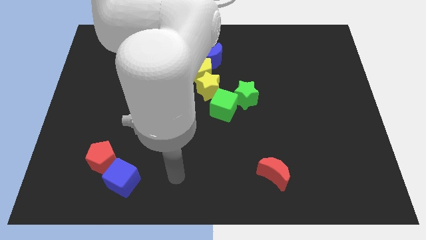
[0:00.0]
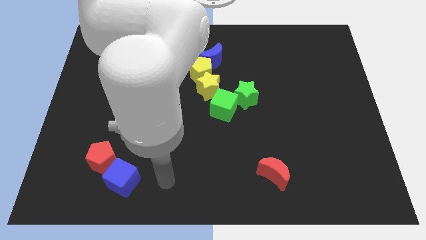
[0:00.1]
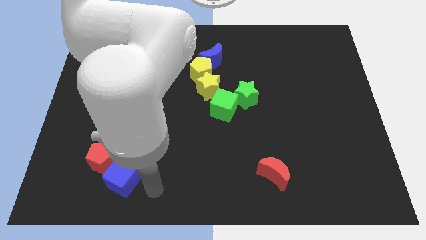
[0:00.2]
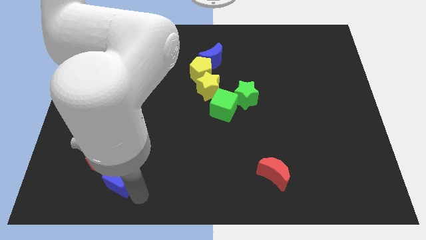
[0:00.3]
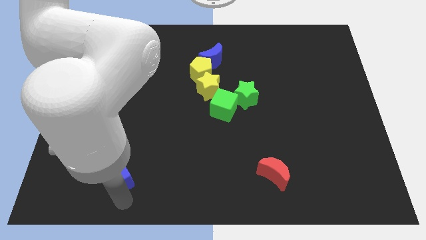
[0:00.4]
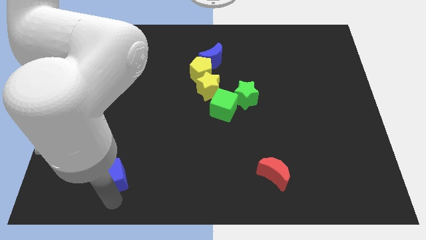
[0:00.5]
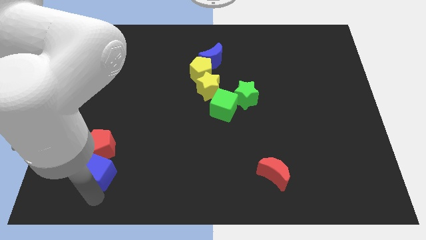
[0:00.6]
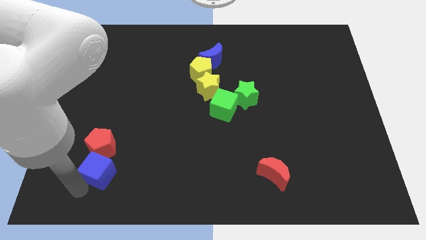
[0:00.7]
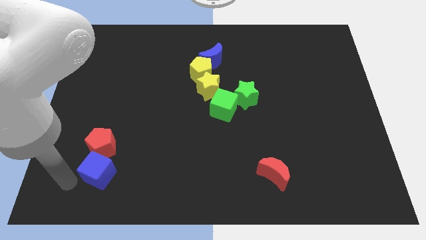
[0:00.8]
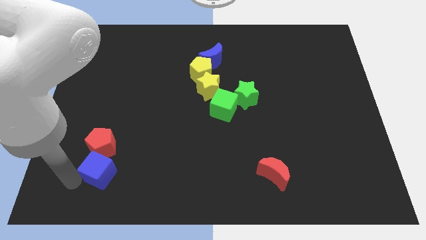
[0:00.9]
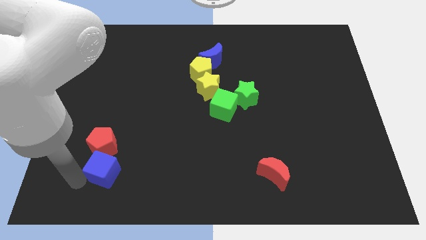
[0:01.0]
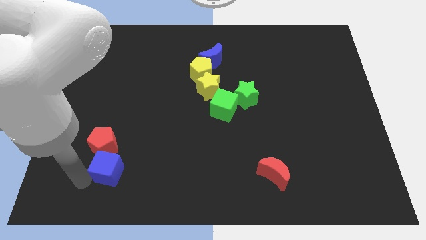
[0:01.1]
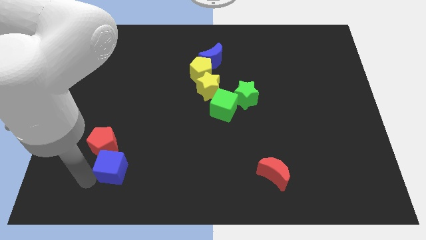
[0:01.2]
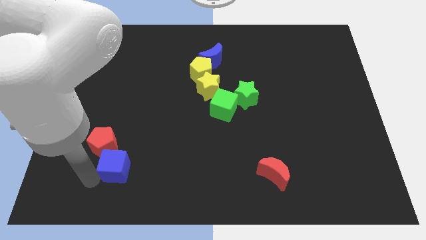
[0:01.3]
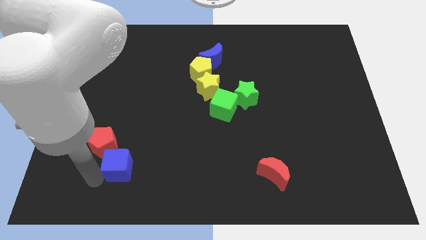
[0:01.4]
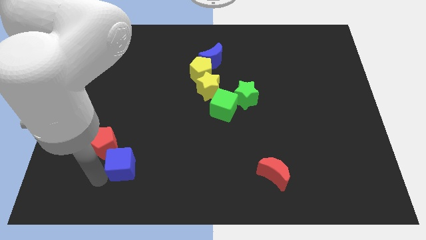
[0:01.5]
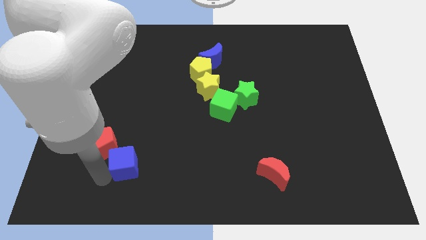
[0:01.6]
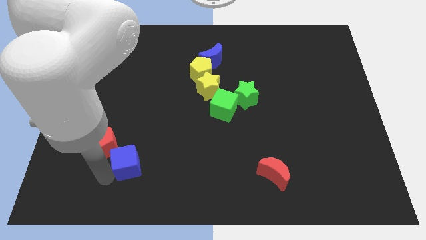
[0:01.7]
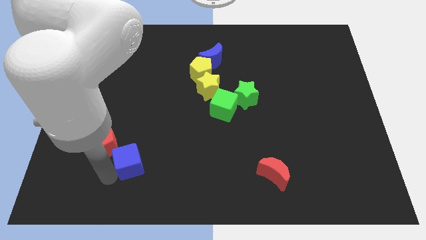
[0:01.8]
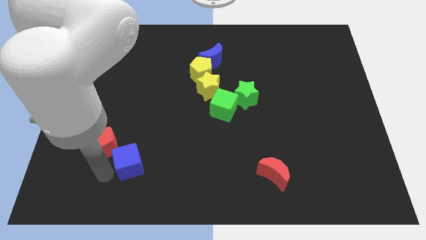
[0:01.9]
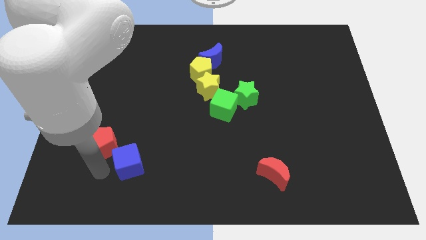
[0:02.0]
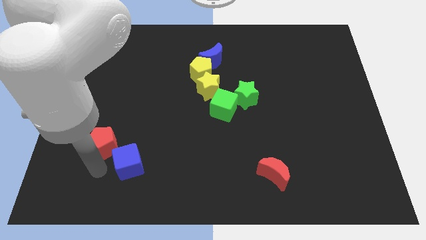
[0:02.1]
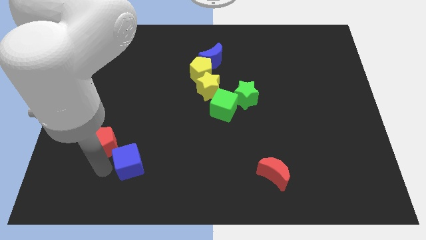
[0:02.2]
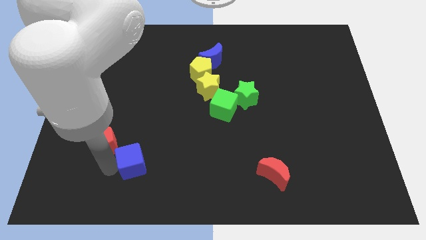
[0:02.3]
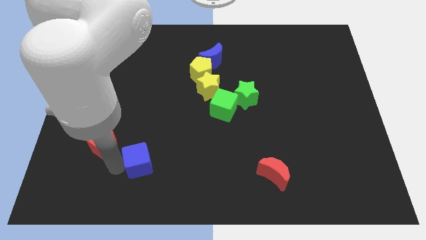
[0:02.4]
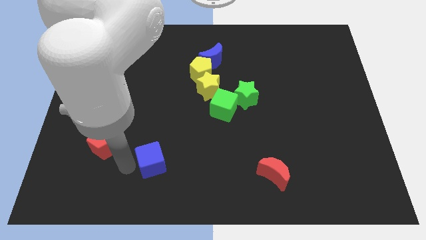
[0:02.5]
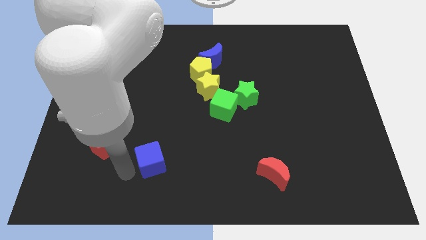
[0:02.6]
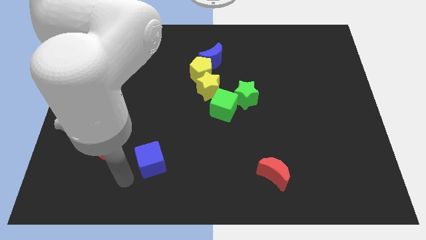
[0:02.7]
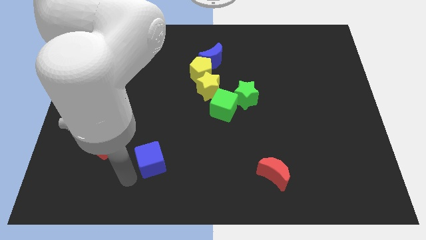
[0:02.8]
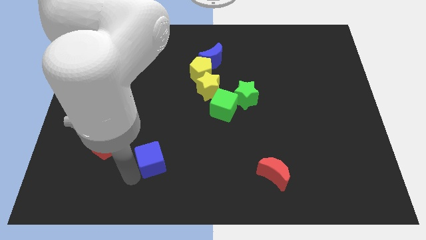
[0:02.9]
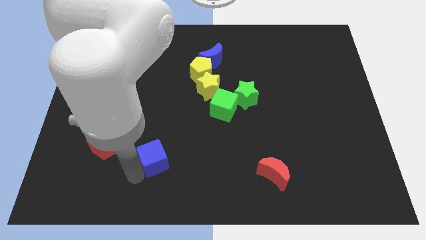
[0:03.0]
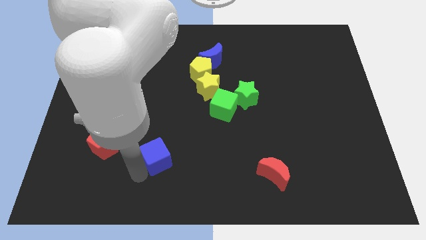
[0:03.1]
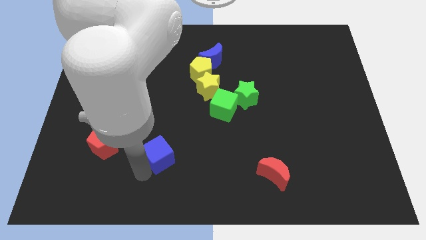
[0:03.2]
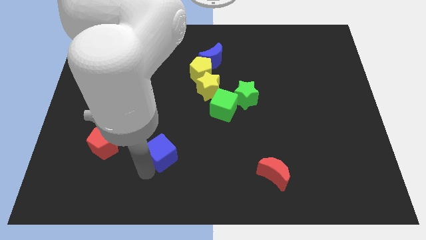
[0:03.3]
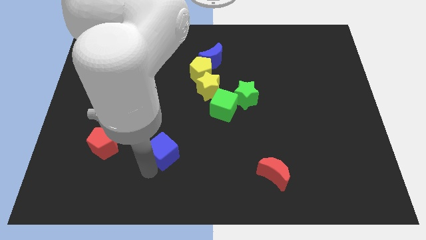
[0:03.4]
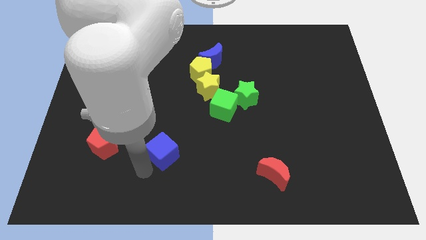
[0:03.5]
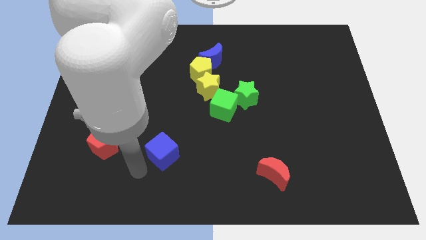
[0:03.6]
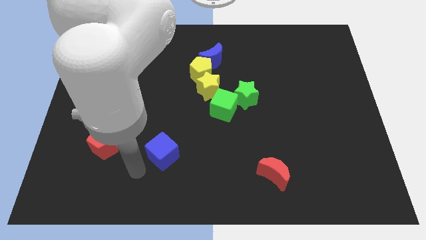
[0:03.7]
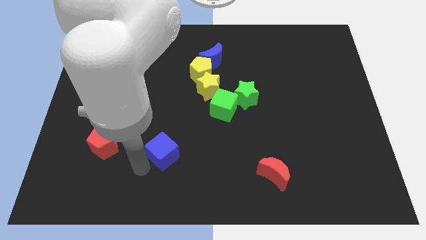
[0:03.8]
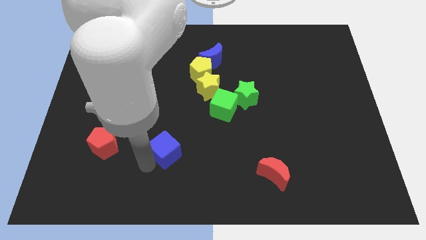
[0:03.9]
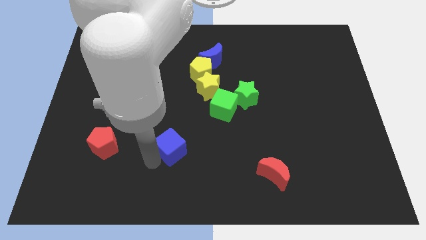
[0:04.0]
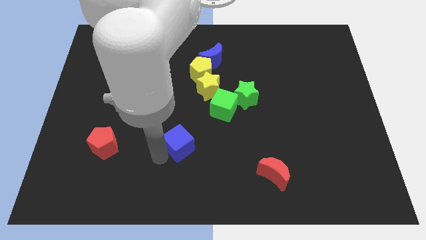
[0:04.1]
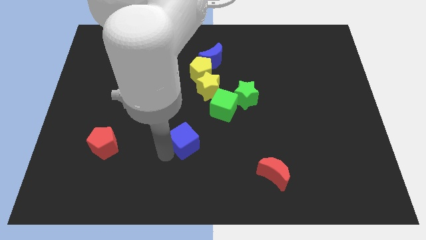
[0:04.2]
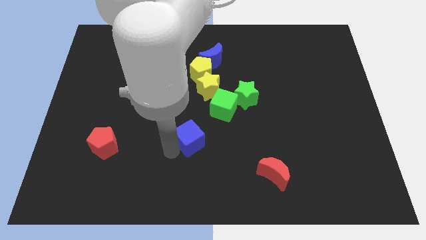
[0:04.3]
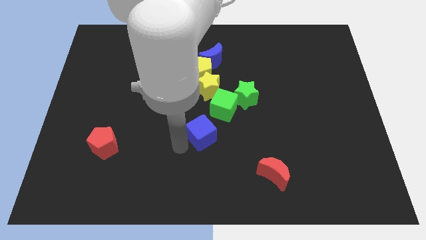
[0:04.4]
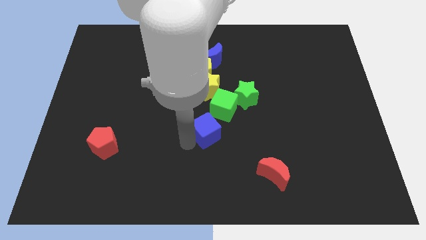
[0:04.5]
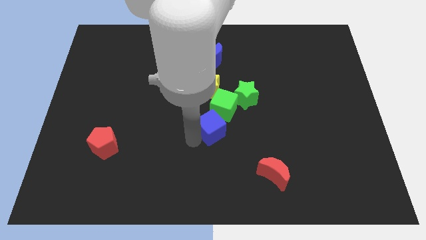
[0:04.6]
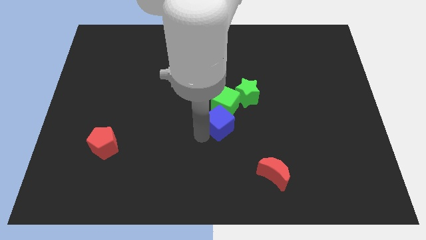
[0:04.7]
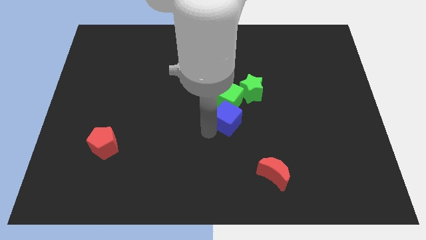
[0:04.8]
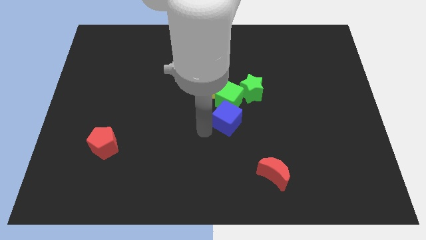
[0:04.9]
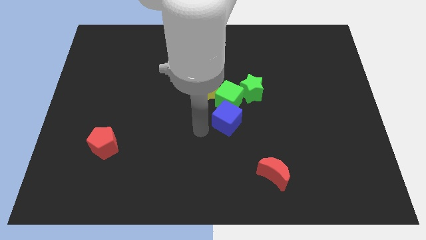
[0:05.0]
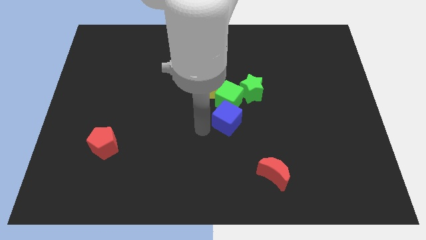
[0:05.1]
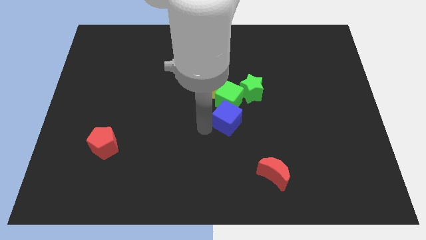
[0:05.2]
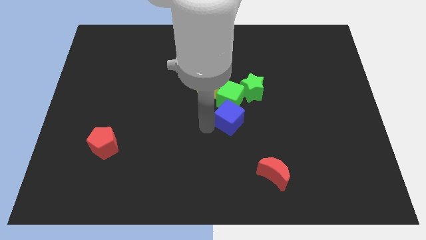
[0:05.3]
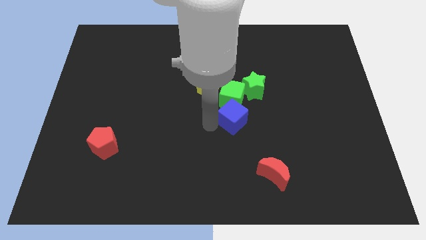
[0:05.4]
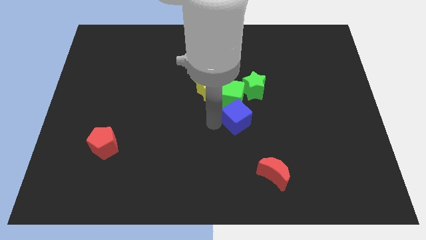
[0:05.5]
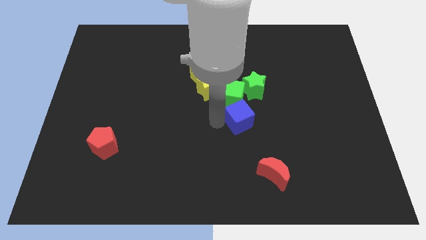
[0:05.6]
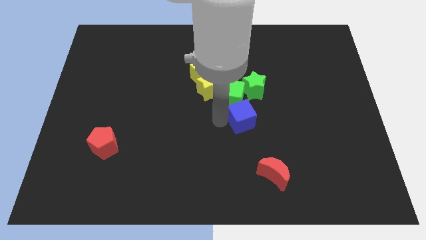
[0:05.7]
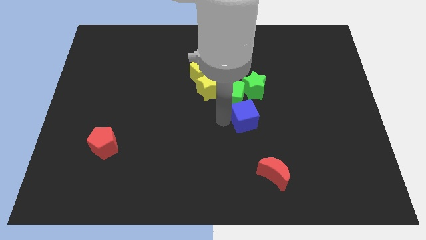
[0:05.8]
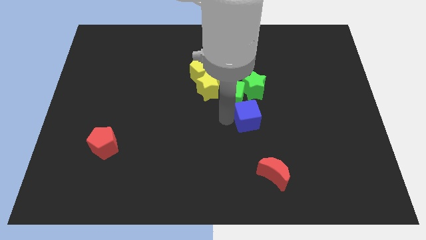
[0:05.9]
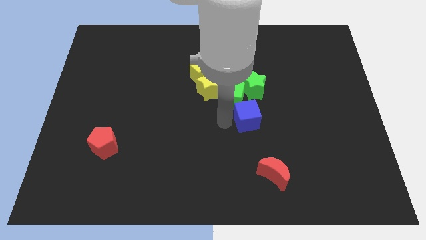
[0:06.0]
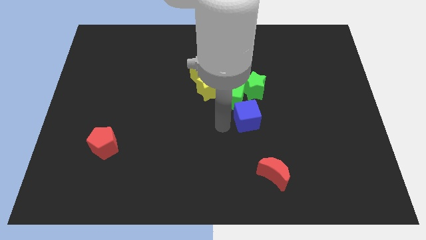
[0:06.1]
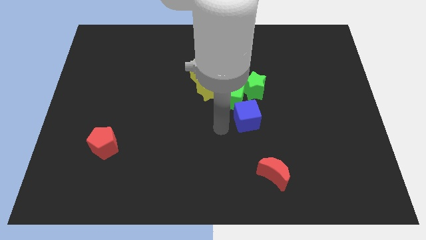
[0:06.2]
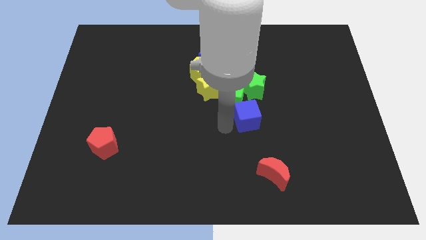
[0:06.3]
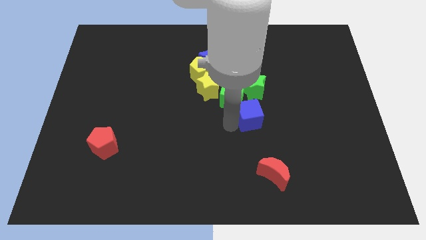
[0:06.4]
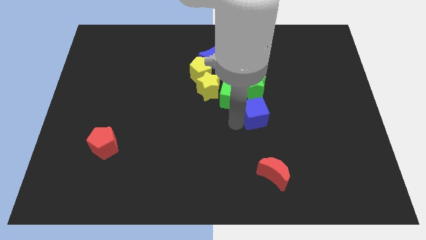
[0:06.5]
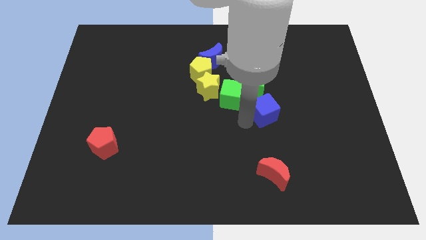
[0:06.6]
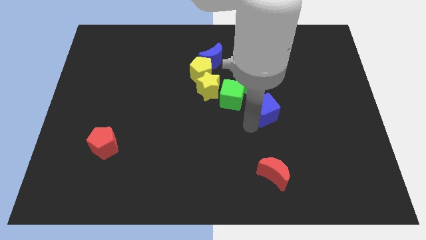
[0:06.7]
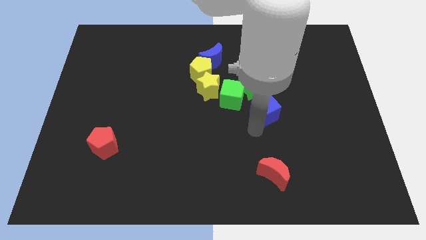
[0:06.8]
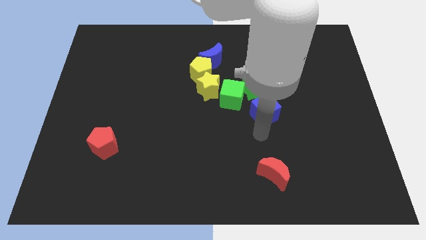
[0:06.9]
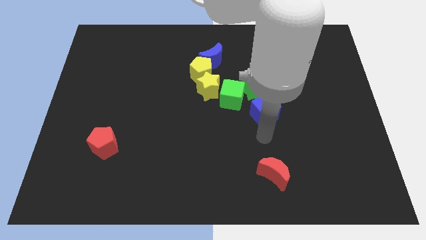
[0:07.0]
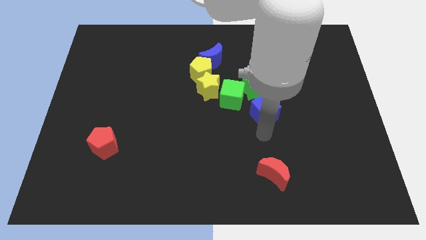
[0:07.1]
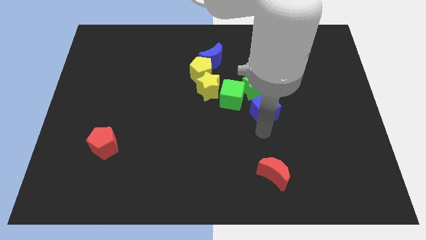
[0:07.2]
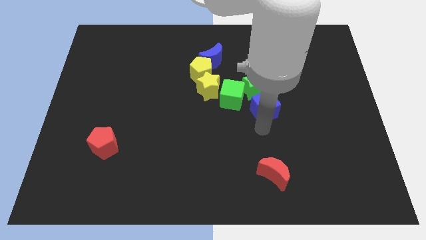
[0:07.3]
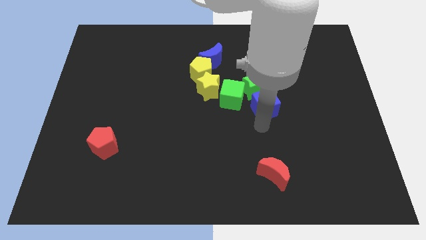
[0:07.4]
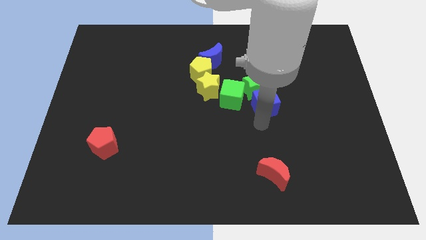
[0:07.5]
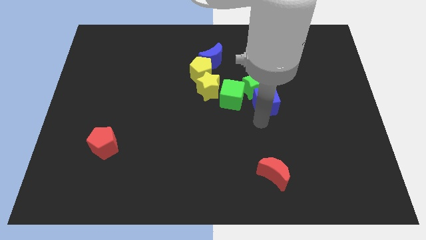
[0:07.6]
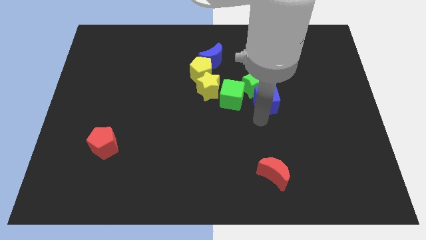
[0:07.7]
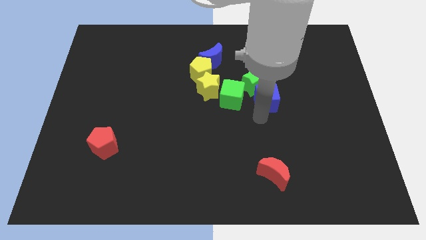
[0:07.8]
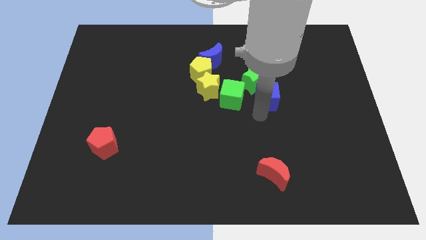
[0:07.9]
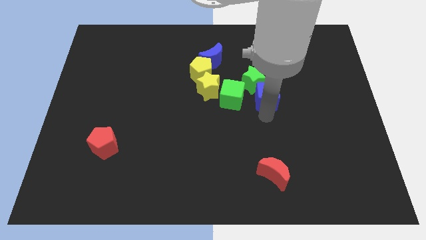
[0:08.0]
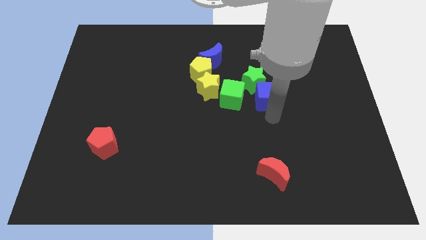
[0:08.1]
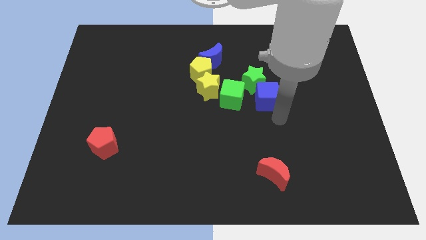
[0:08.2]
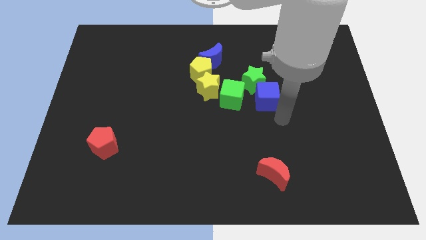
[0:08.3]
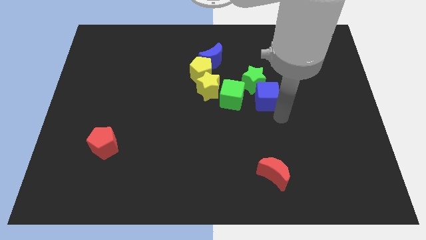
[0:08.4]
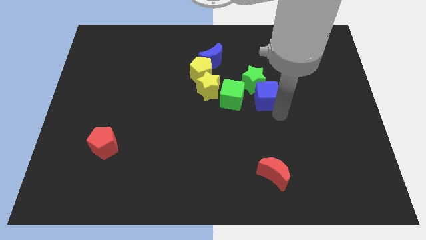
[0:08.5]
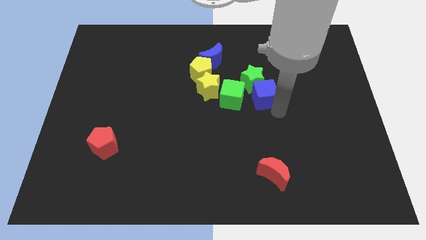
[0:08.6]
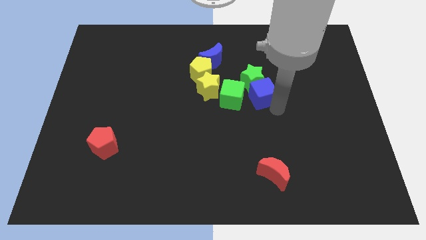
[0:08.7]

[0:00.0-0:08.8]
move the blue cube diagonally up and to the right of the green cube
